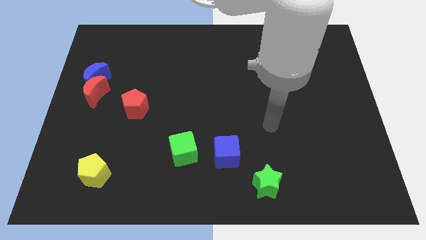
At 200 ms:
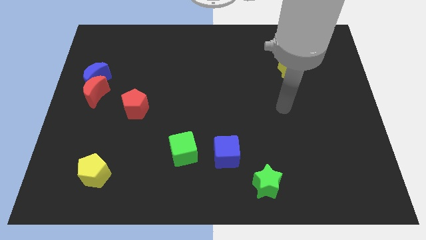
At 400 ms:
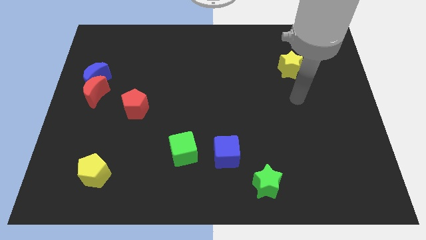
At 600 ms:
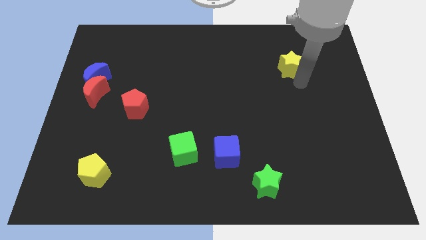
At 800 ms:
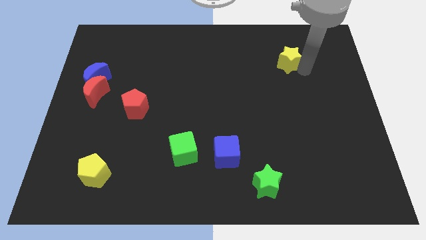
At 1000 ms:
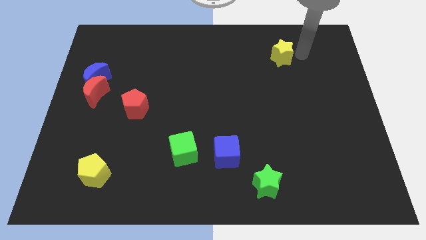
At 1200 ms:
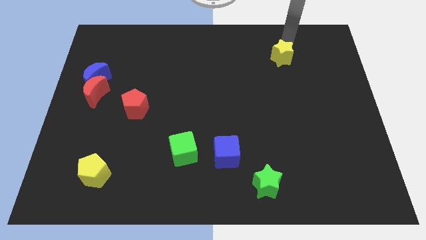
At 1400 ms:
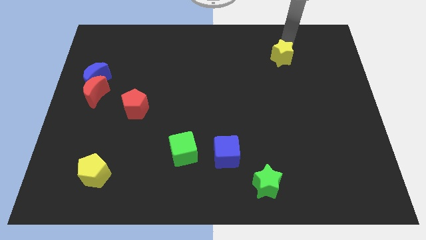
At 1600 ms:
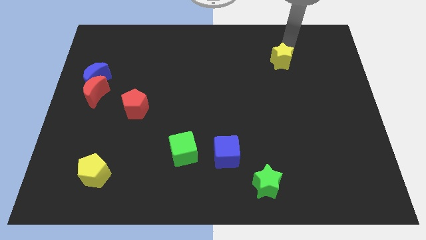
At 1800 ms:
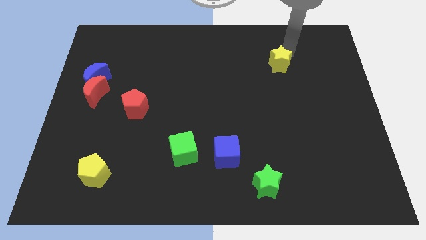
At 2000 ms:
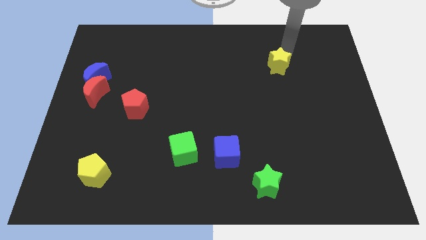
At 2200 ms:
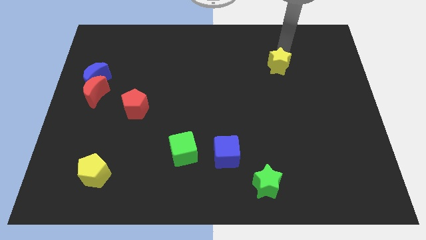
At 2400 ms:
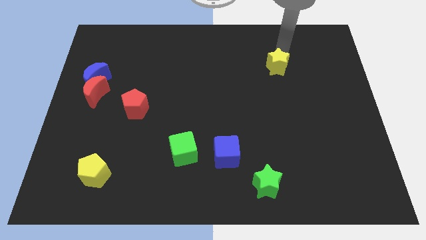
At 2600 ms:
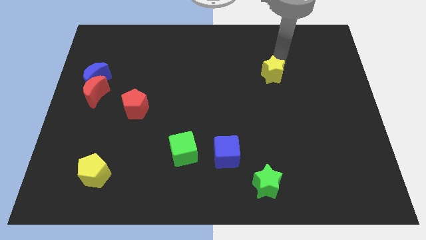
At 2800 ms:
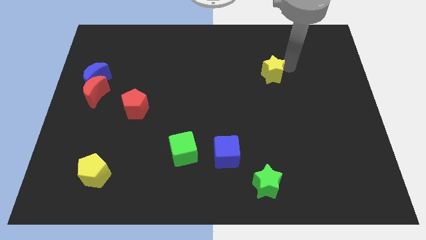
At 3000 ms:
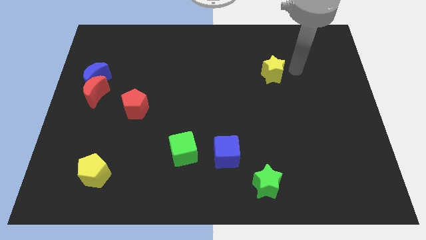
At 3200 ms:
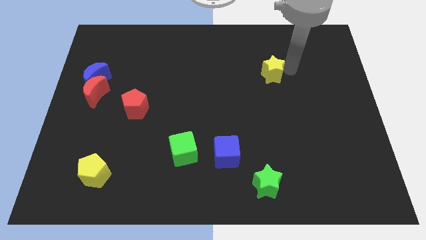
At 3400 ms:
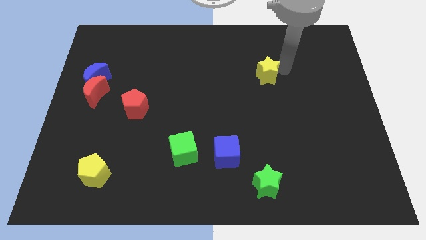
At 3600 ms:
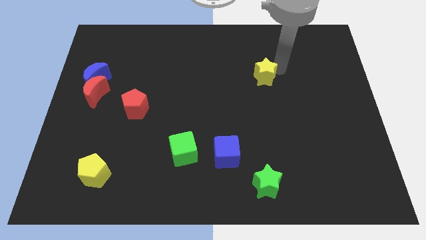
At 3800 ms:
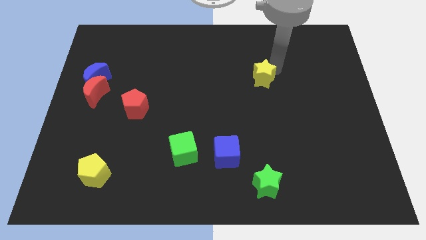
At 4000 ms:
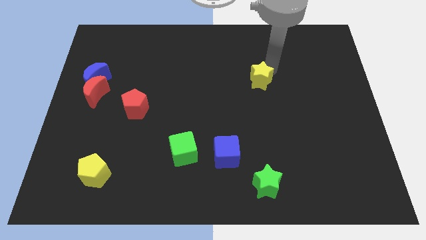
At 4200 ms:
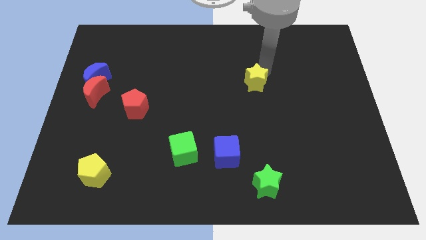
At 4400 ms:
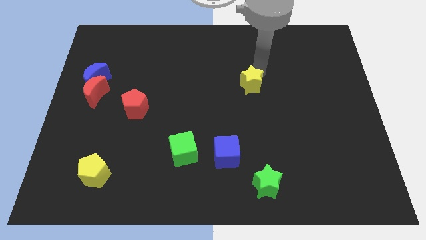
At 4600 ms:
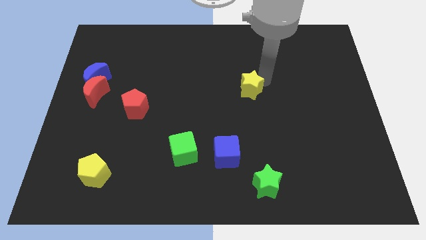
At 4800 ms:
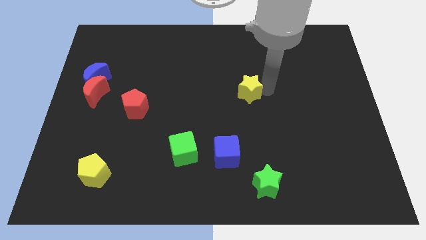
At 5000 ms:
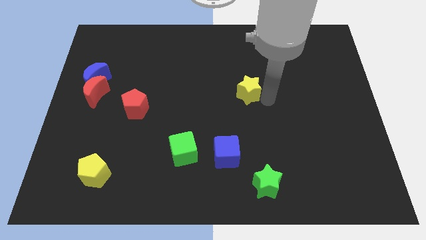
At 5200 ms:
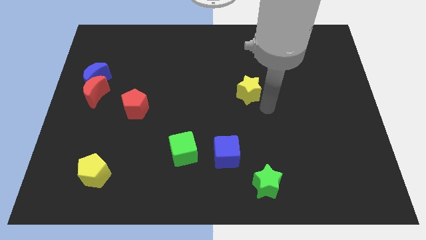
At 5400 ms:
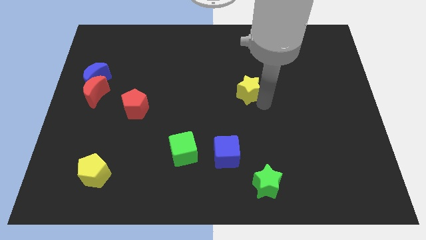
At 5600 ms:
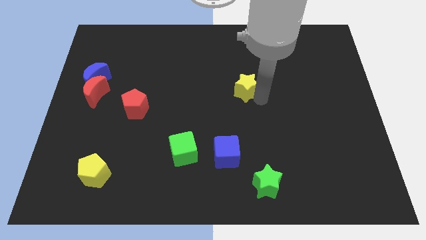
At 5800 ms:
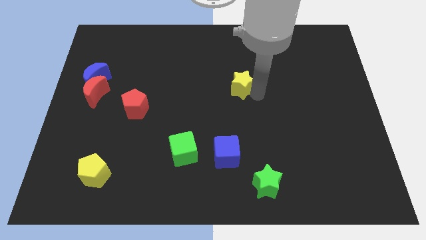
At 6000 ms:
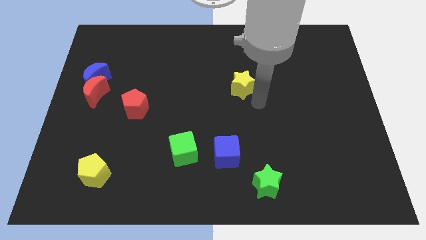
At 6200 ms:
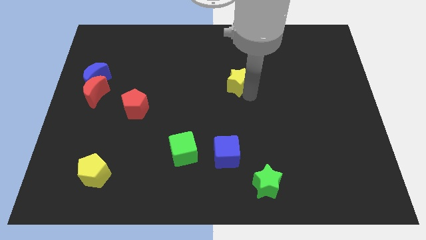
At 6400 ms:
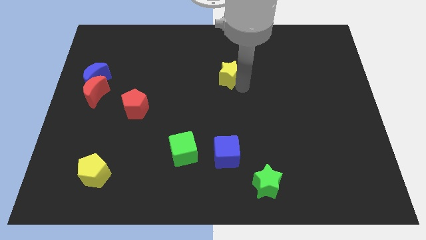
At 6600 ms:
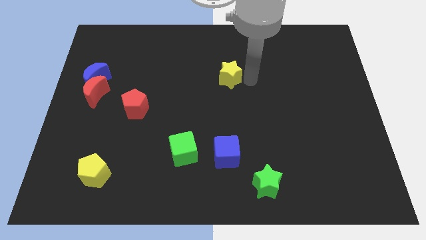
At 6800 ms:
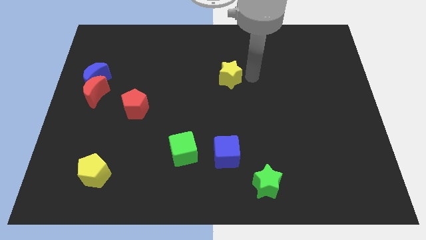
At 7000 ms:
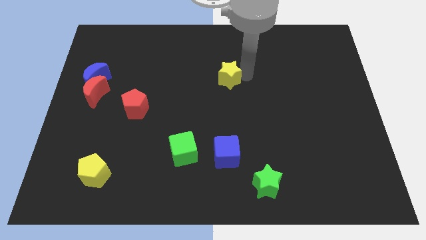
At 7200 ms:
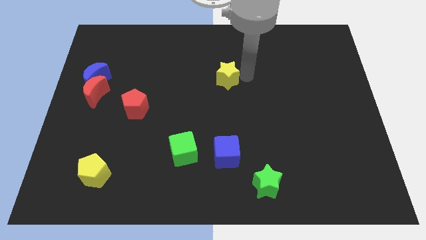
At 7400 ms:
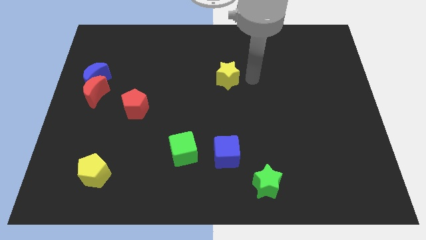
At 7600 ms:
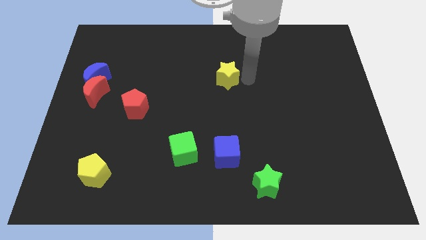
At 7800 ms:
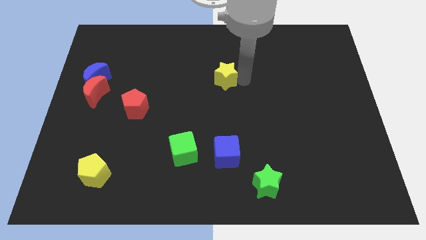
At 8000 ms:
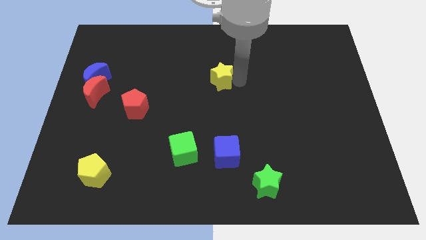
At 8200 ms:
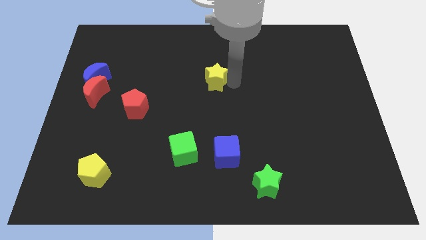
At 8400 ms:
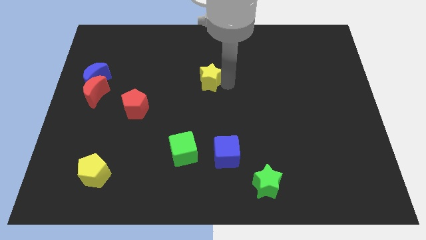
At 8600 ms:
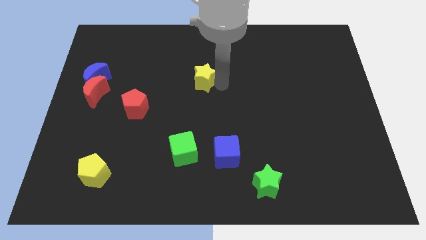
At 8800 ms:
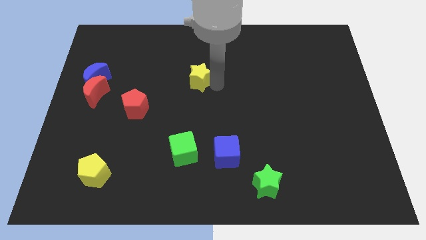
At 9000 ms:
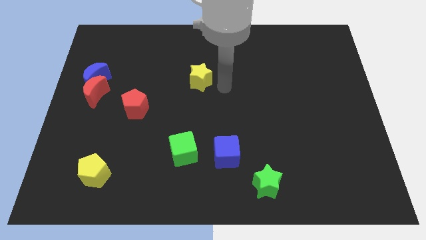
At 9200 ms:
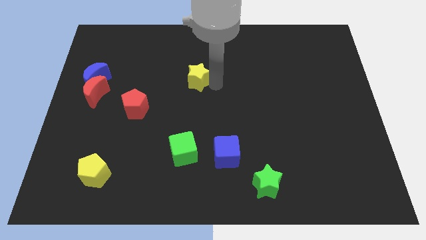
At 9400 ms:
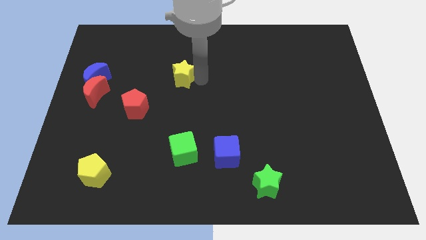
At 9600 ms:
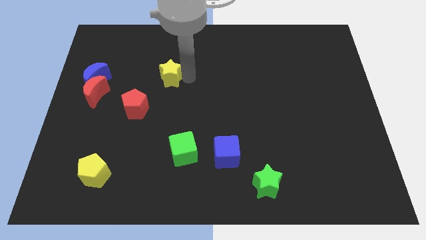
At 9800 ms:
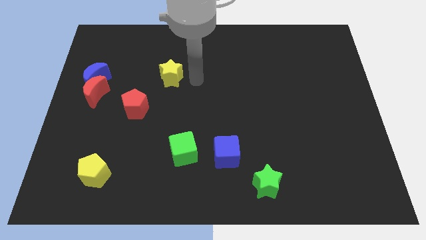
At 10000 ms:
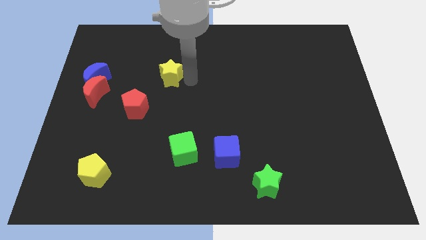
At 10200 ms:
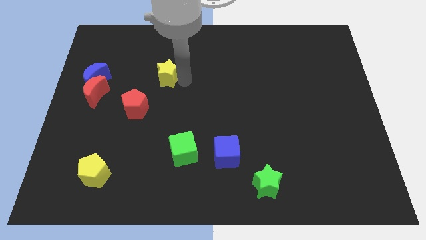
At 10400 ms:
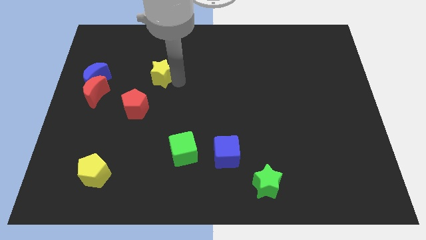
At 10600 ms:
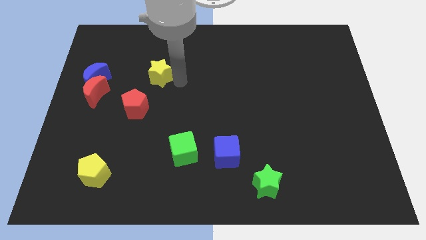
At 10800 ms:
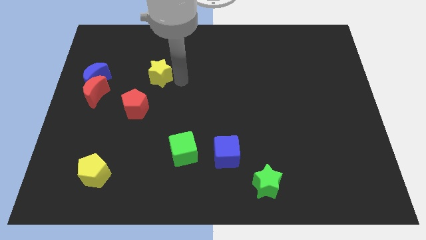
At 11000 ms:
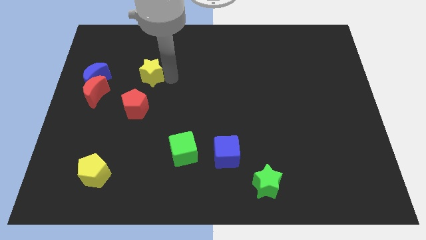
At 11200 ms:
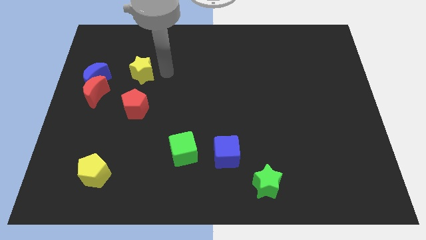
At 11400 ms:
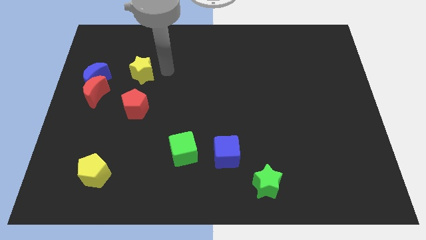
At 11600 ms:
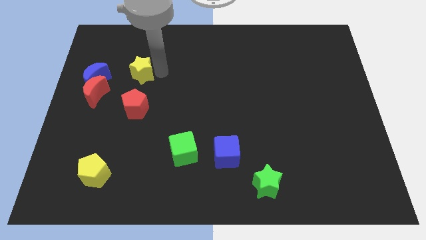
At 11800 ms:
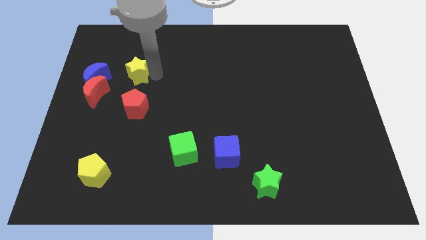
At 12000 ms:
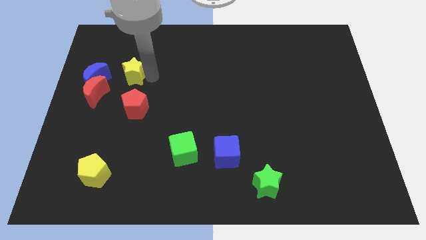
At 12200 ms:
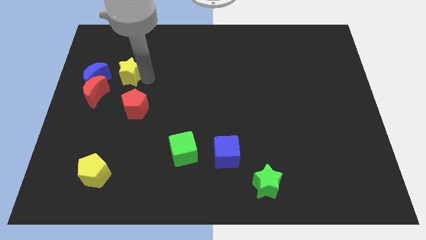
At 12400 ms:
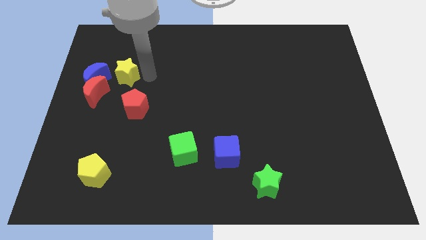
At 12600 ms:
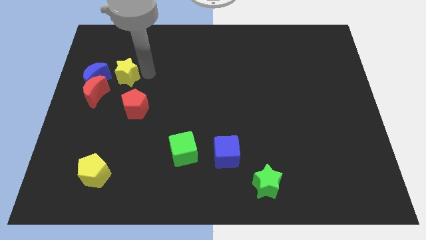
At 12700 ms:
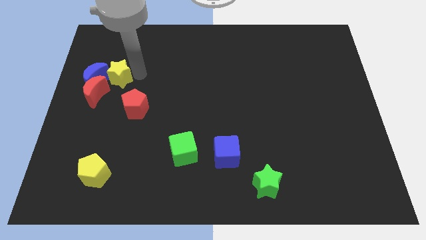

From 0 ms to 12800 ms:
push the yellow star next to the blue moon

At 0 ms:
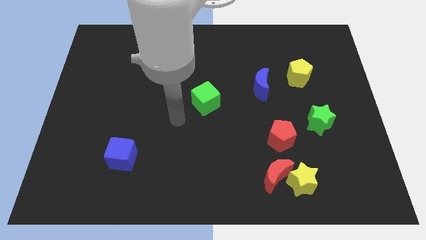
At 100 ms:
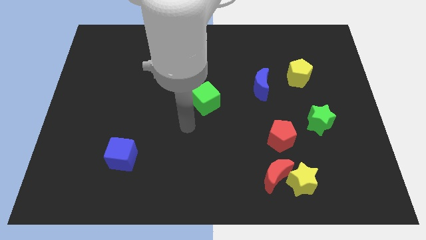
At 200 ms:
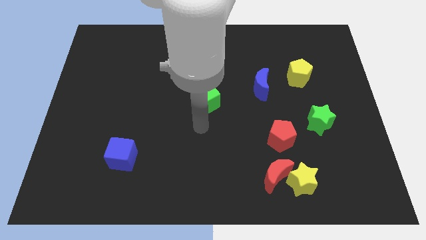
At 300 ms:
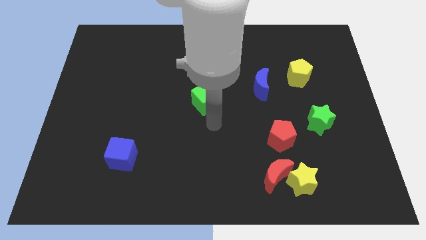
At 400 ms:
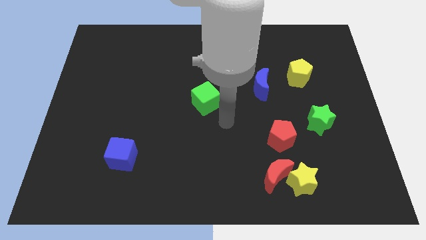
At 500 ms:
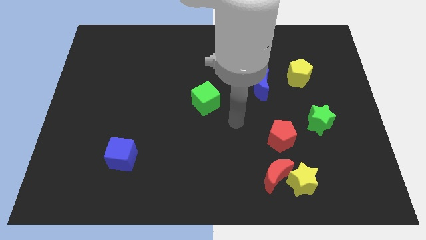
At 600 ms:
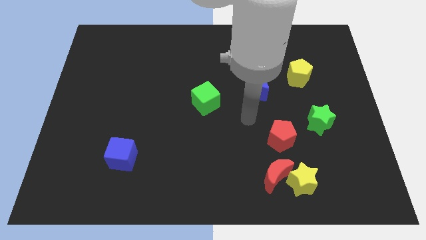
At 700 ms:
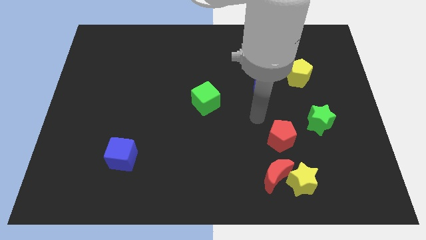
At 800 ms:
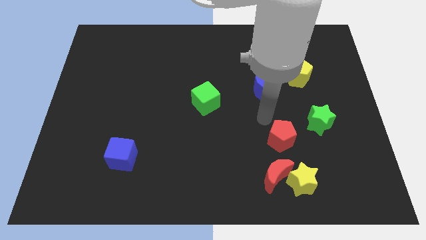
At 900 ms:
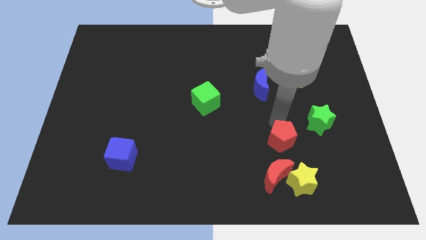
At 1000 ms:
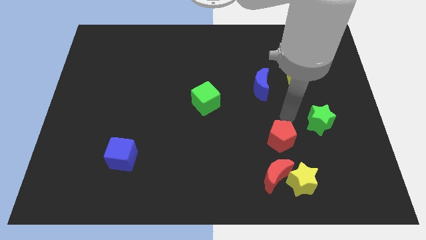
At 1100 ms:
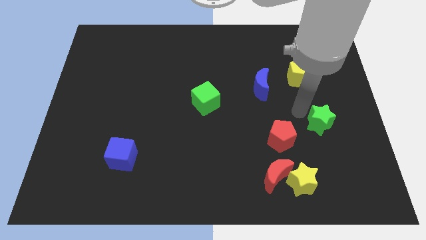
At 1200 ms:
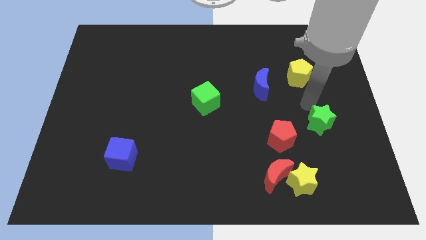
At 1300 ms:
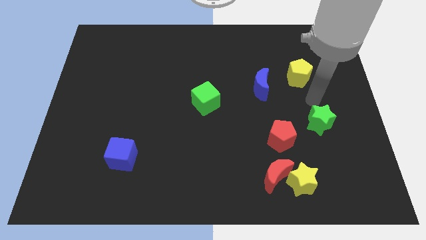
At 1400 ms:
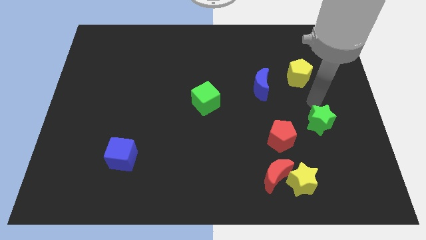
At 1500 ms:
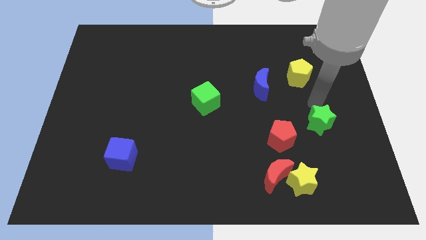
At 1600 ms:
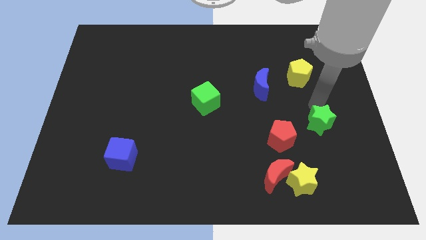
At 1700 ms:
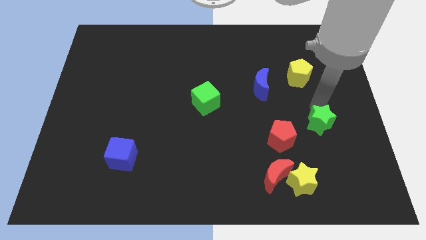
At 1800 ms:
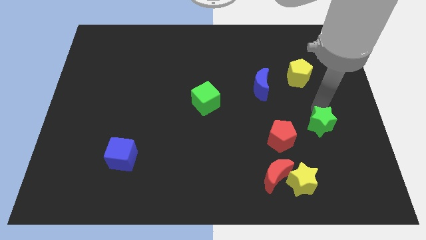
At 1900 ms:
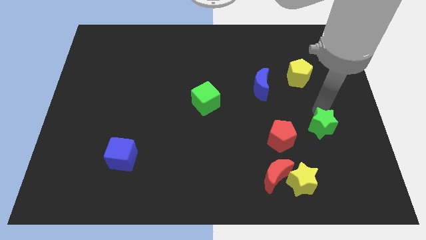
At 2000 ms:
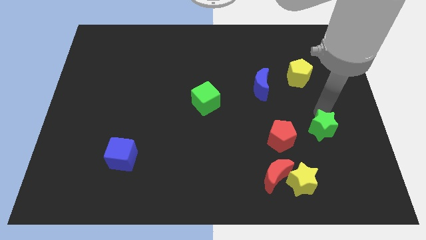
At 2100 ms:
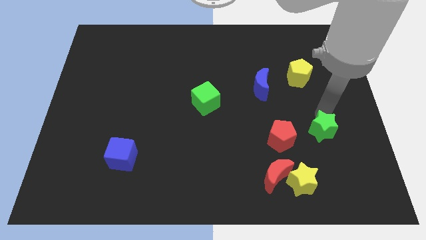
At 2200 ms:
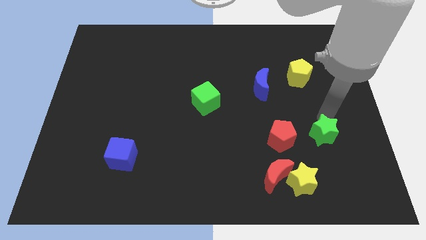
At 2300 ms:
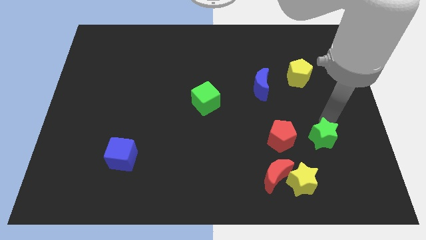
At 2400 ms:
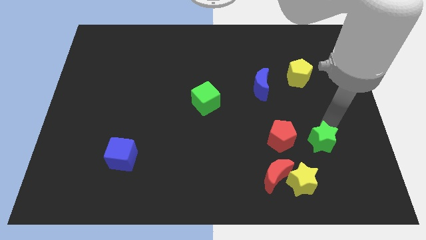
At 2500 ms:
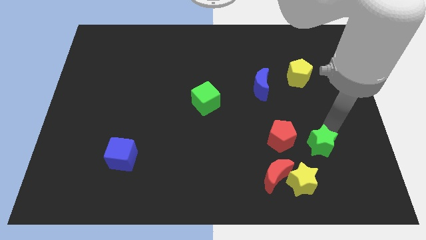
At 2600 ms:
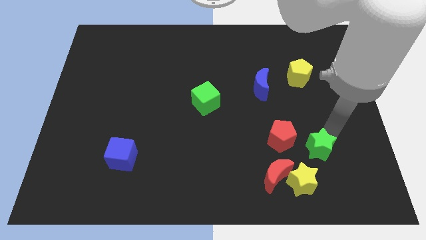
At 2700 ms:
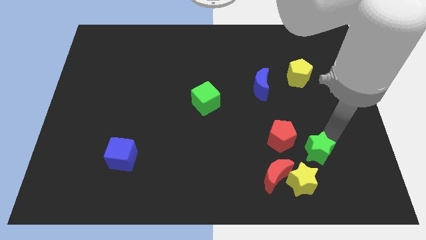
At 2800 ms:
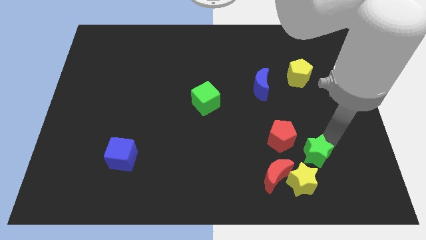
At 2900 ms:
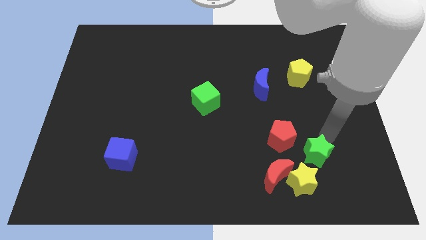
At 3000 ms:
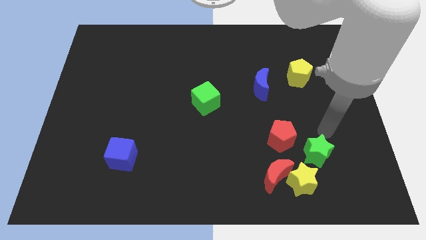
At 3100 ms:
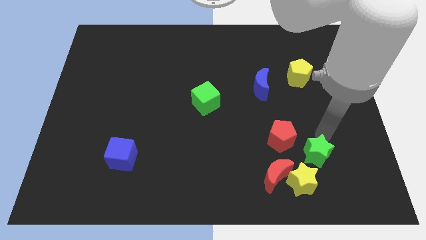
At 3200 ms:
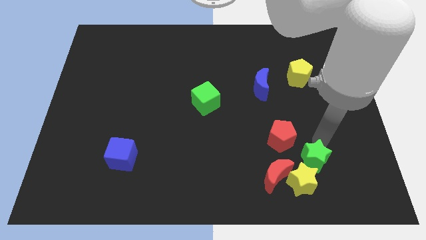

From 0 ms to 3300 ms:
slide the green star to the yellow star
